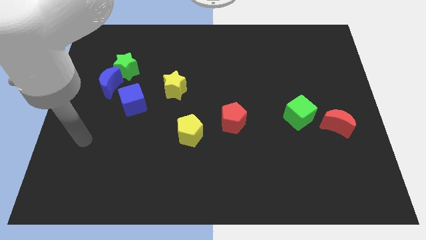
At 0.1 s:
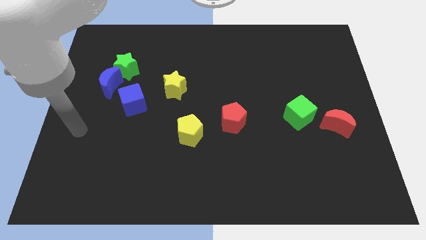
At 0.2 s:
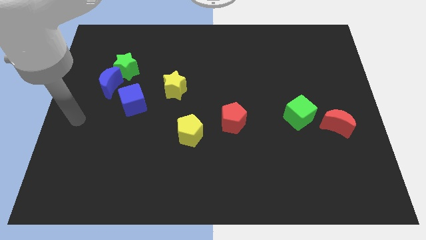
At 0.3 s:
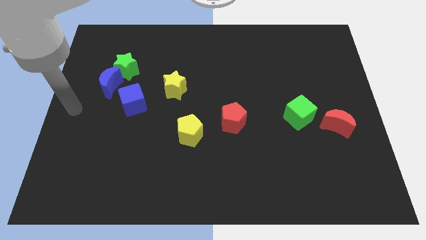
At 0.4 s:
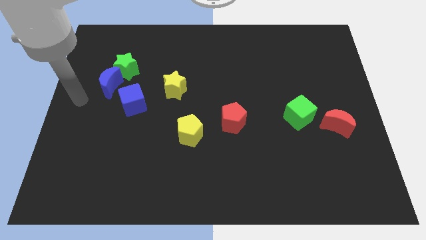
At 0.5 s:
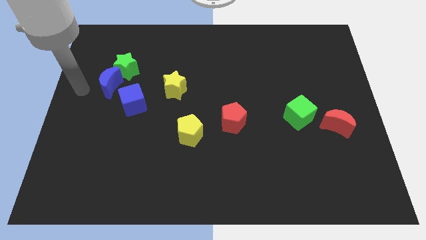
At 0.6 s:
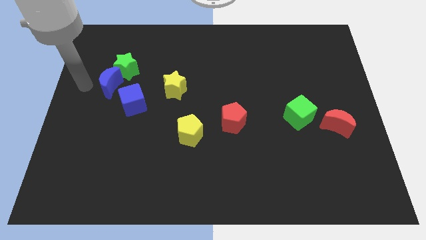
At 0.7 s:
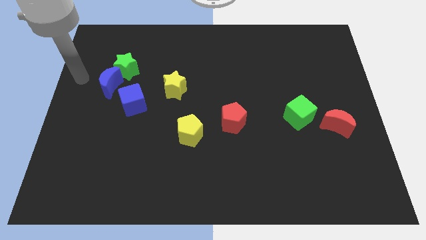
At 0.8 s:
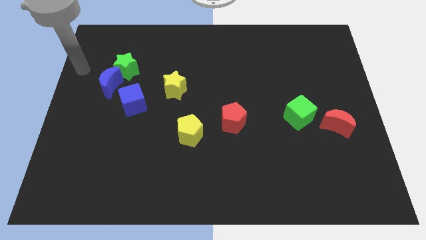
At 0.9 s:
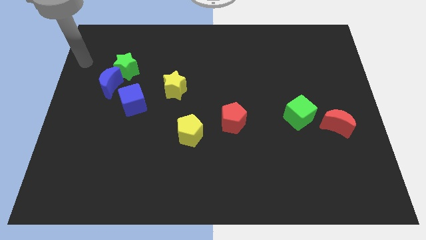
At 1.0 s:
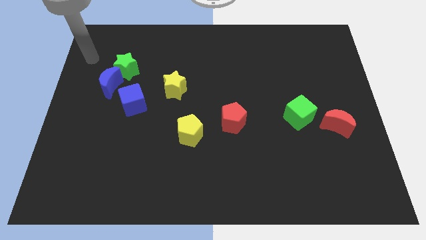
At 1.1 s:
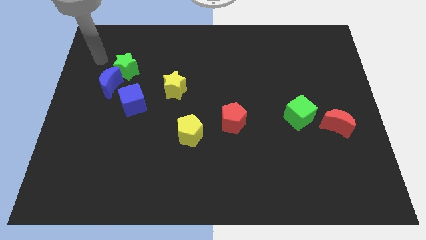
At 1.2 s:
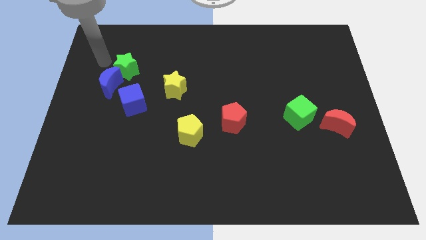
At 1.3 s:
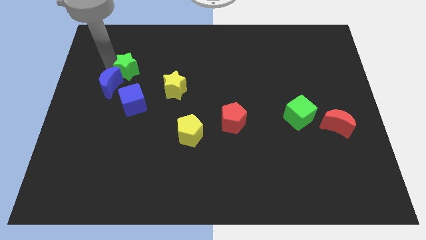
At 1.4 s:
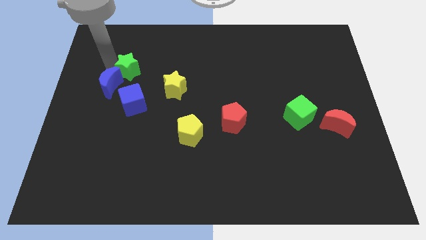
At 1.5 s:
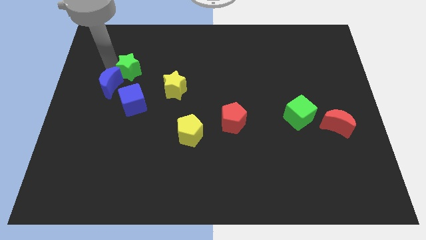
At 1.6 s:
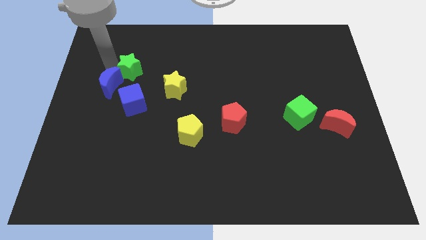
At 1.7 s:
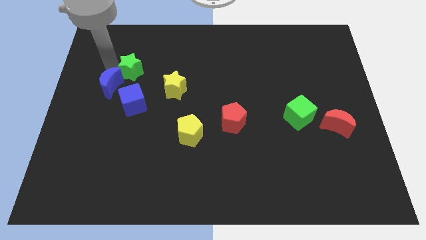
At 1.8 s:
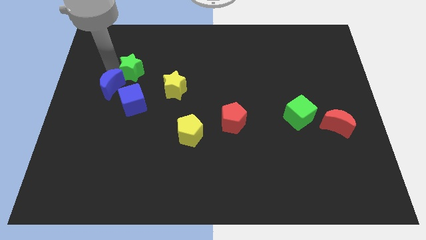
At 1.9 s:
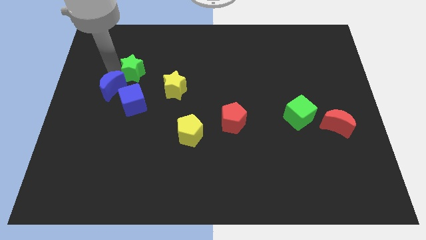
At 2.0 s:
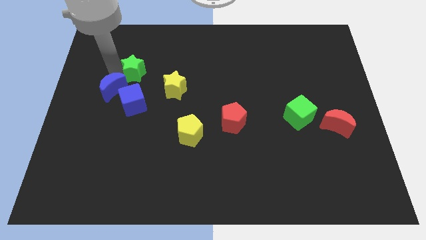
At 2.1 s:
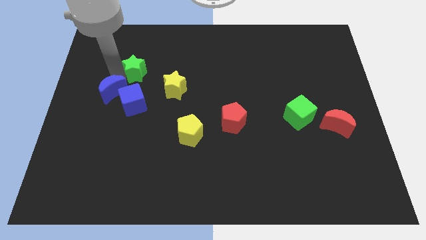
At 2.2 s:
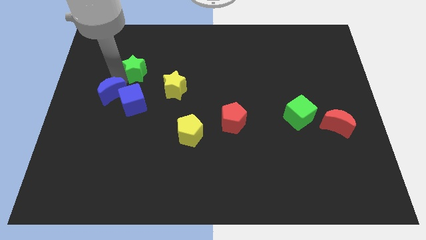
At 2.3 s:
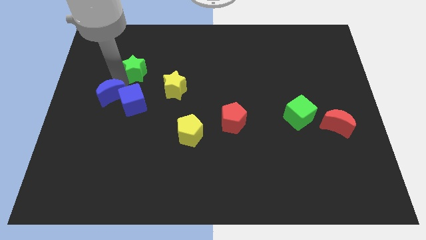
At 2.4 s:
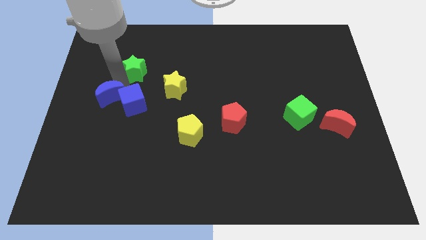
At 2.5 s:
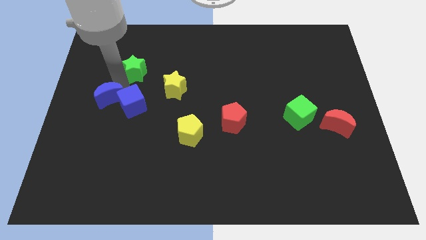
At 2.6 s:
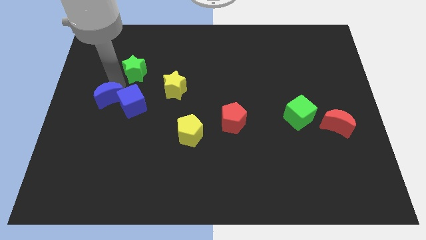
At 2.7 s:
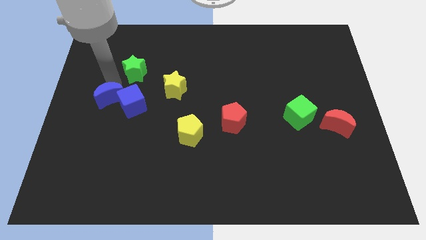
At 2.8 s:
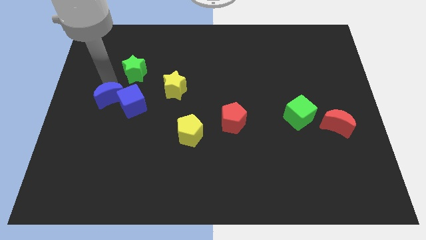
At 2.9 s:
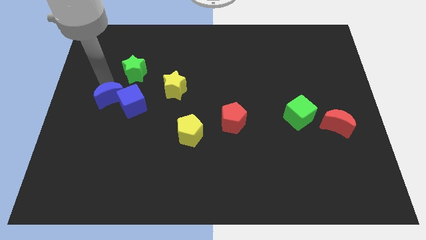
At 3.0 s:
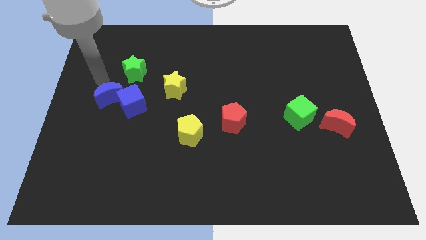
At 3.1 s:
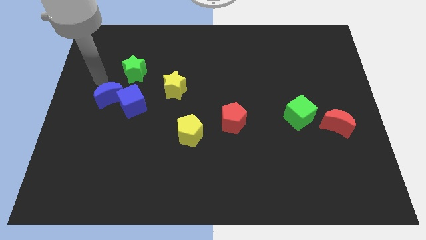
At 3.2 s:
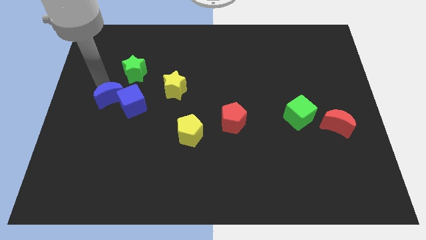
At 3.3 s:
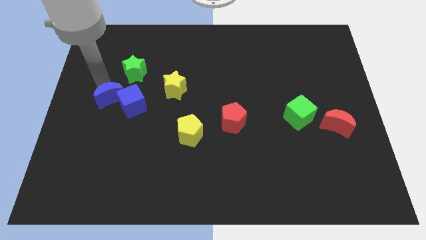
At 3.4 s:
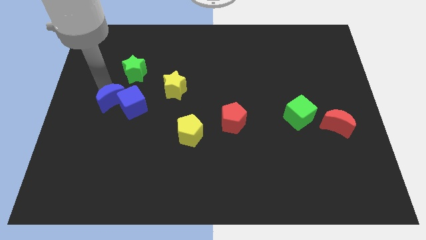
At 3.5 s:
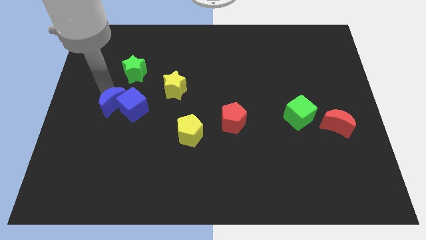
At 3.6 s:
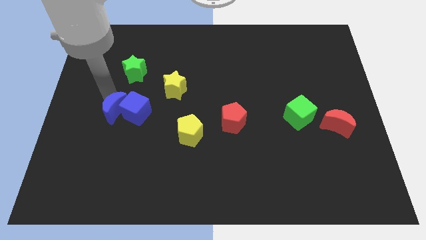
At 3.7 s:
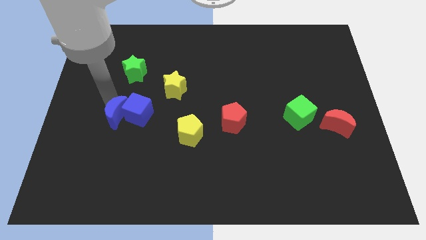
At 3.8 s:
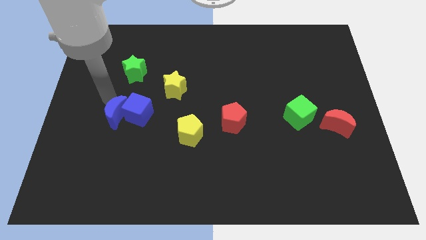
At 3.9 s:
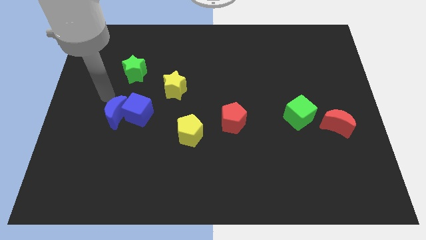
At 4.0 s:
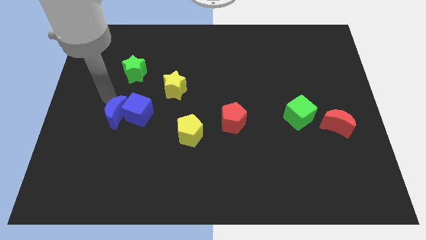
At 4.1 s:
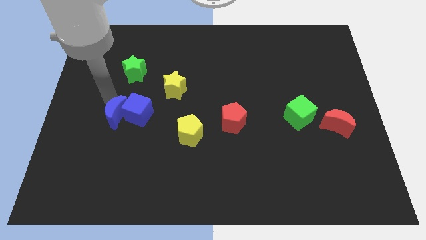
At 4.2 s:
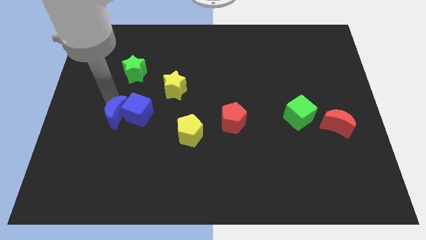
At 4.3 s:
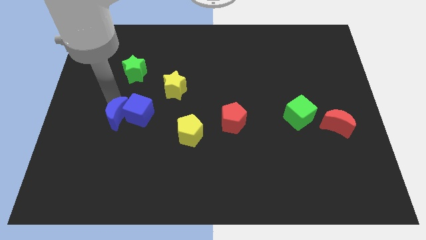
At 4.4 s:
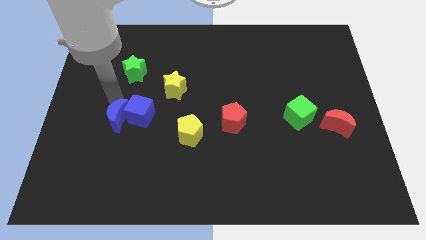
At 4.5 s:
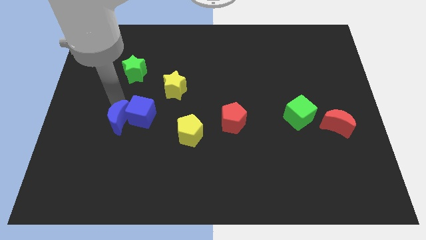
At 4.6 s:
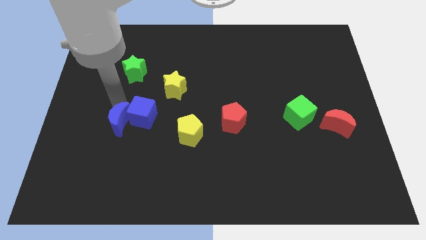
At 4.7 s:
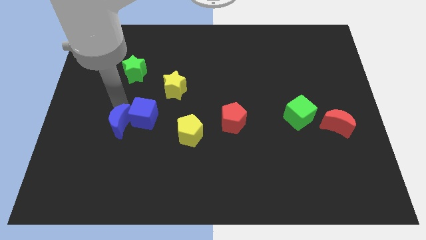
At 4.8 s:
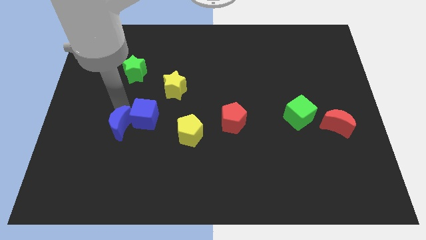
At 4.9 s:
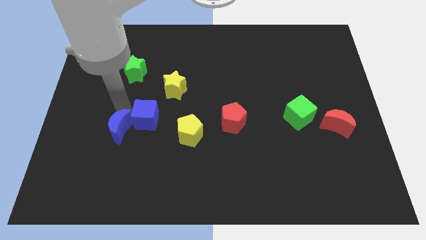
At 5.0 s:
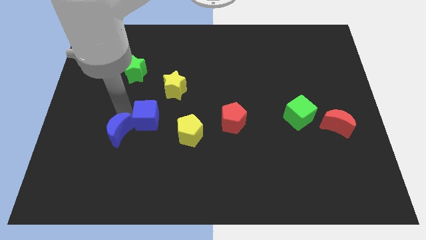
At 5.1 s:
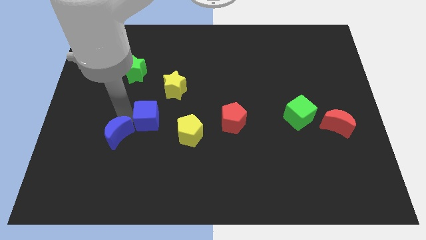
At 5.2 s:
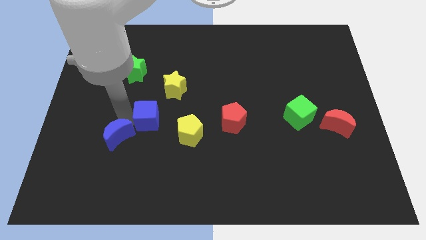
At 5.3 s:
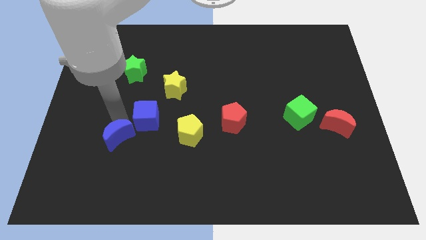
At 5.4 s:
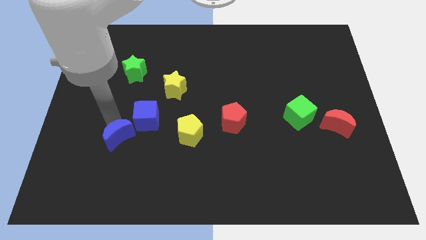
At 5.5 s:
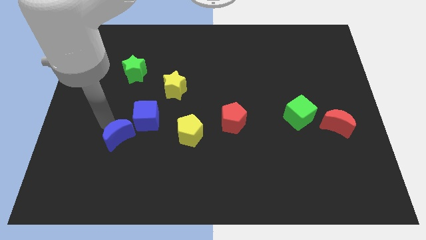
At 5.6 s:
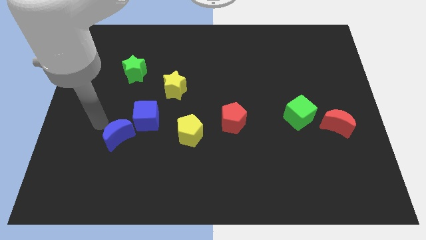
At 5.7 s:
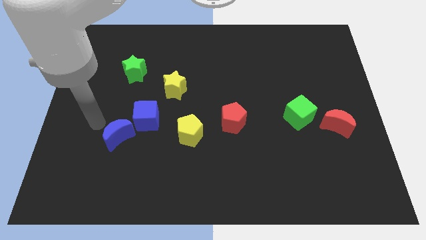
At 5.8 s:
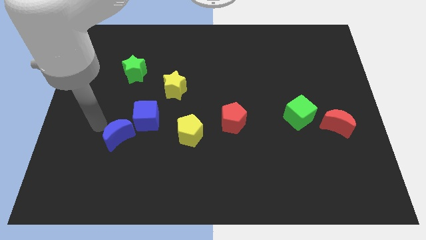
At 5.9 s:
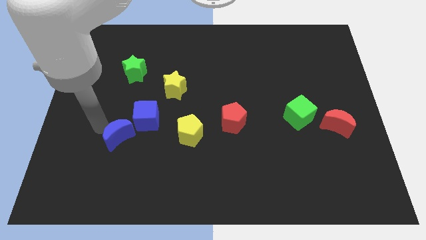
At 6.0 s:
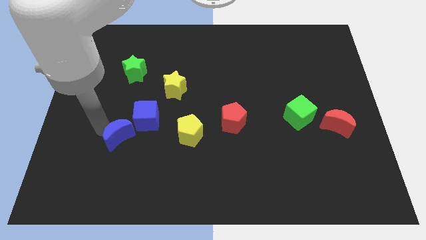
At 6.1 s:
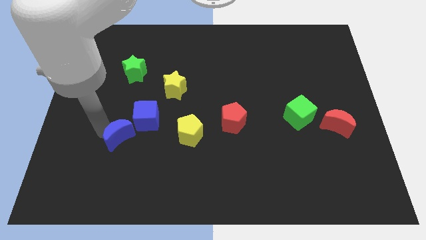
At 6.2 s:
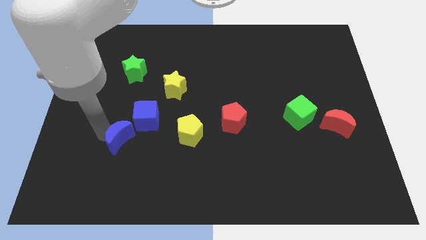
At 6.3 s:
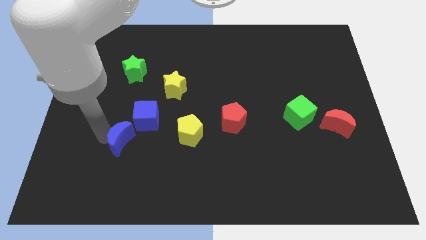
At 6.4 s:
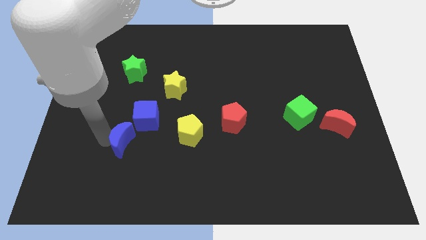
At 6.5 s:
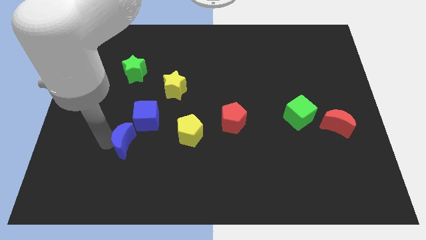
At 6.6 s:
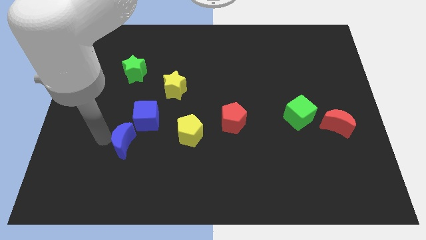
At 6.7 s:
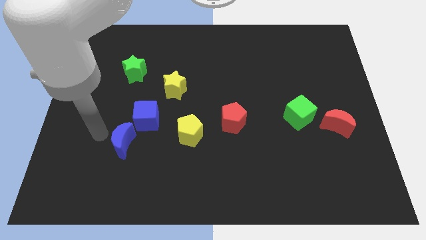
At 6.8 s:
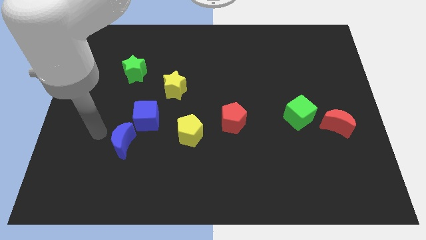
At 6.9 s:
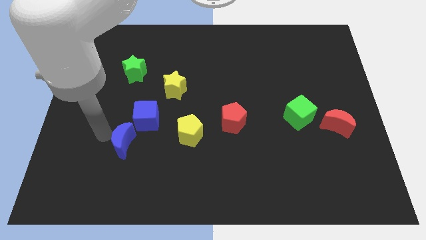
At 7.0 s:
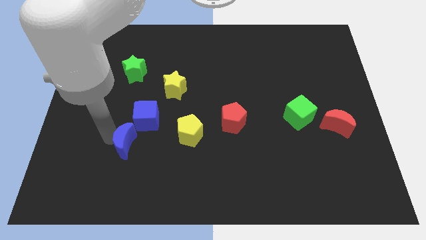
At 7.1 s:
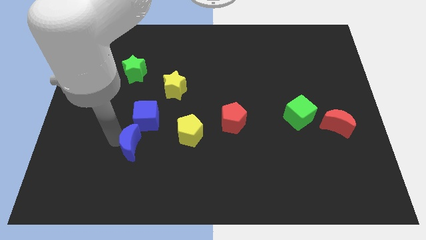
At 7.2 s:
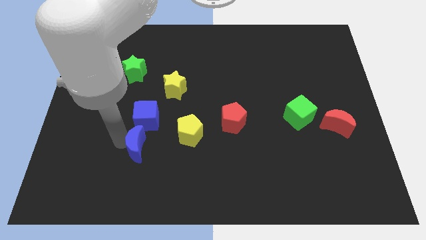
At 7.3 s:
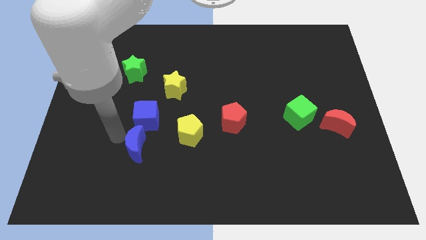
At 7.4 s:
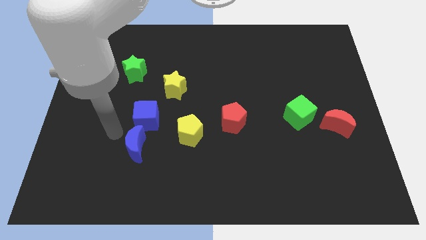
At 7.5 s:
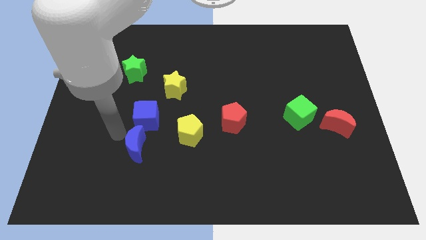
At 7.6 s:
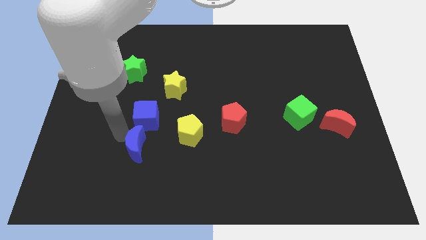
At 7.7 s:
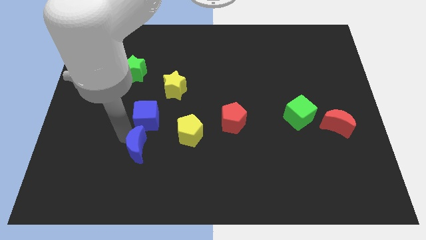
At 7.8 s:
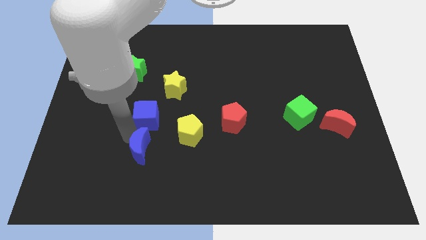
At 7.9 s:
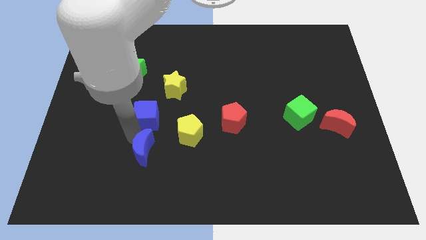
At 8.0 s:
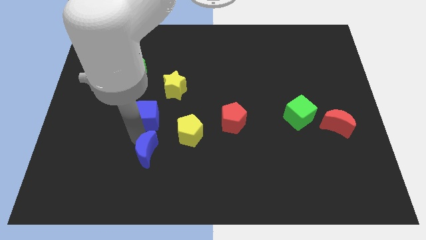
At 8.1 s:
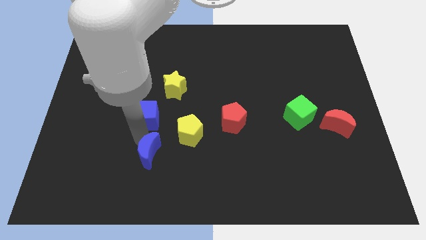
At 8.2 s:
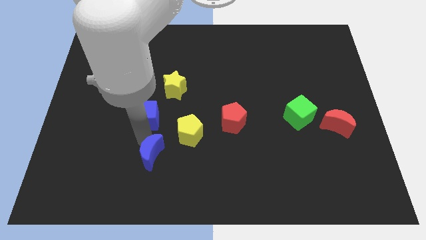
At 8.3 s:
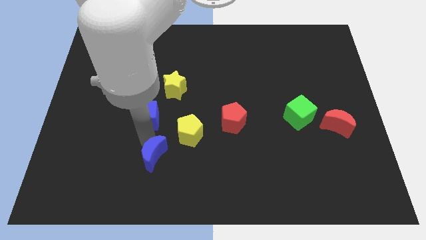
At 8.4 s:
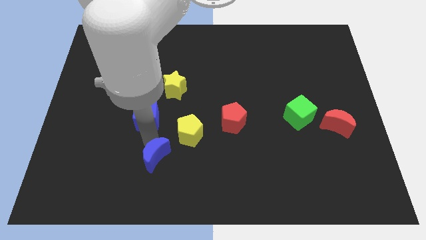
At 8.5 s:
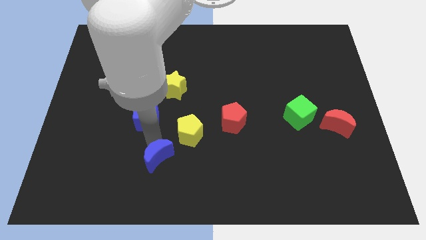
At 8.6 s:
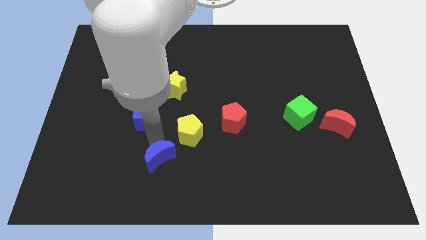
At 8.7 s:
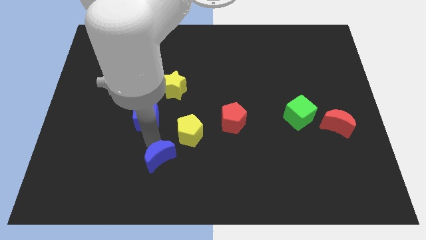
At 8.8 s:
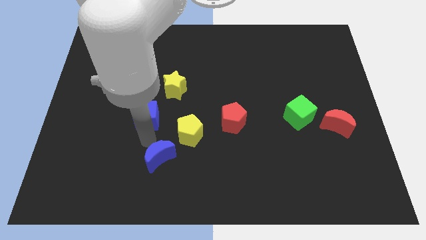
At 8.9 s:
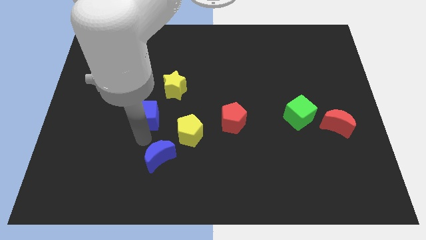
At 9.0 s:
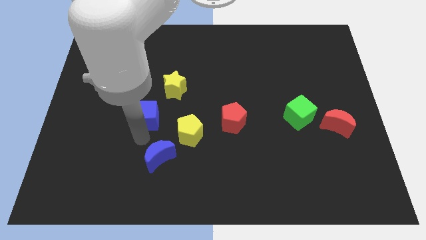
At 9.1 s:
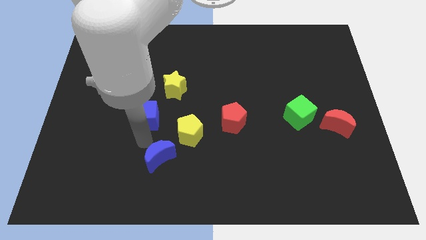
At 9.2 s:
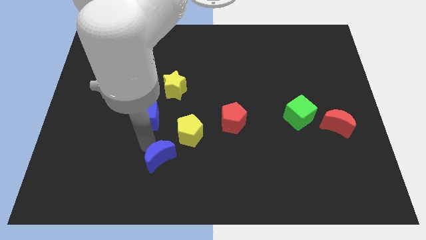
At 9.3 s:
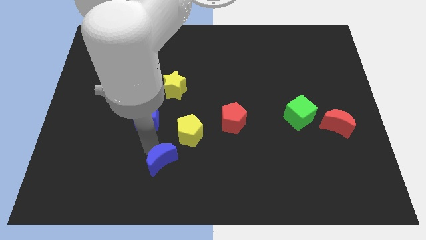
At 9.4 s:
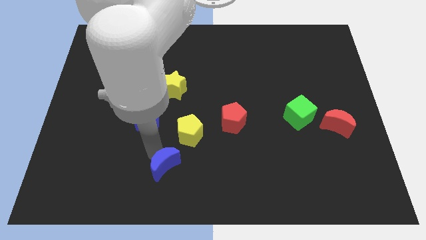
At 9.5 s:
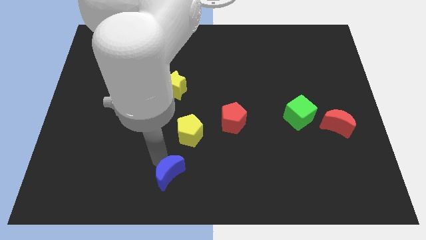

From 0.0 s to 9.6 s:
push the blue moon to the bottom
